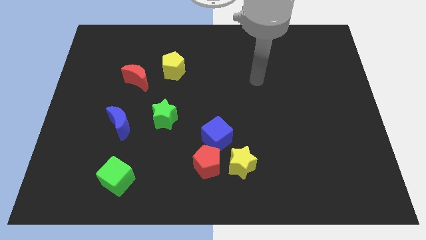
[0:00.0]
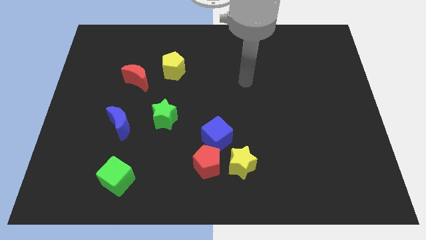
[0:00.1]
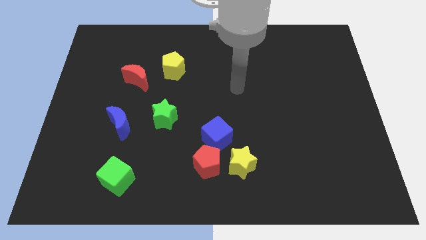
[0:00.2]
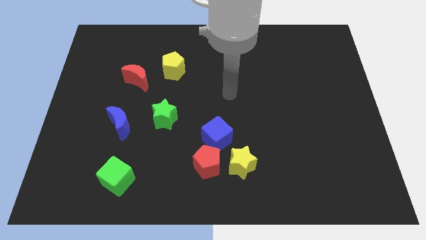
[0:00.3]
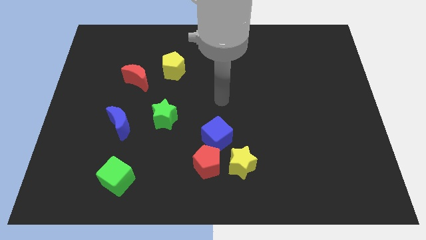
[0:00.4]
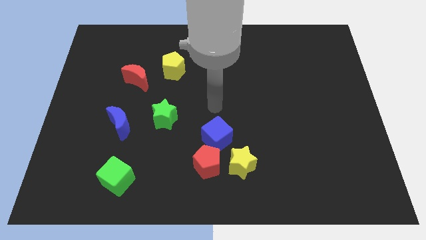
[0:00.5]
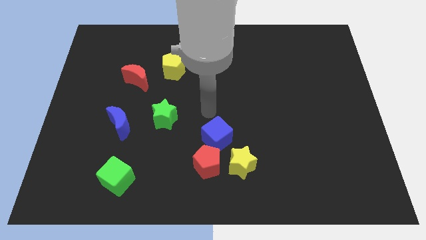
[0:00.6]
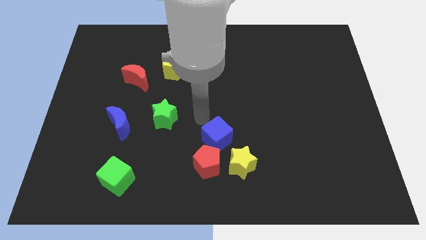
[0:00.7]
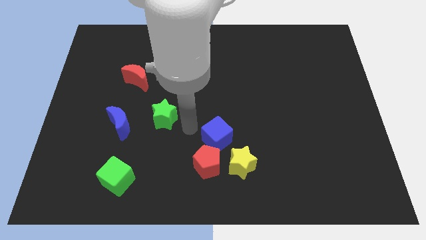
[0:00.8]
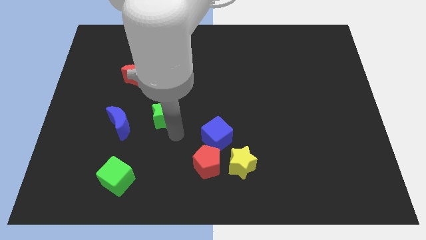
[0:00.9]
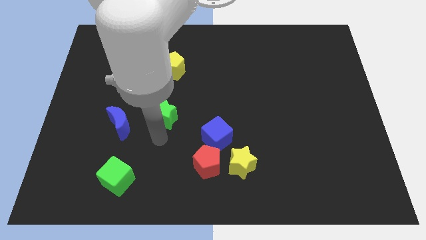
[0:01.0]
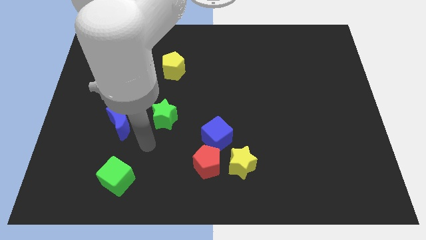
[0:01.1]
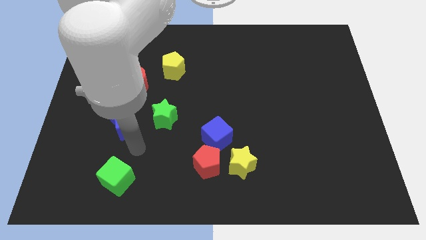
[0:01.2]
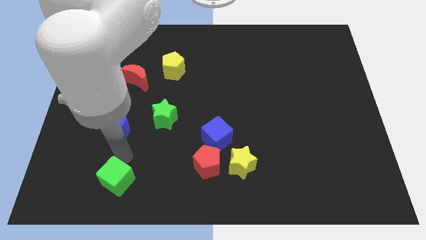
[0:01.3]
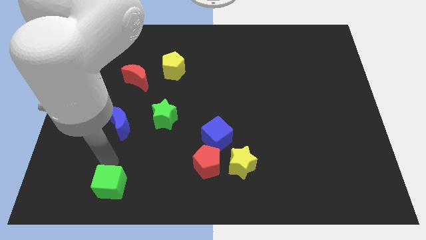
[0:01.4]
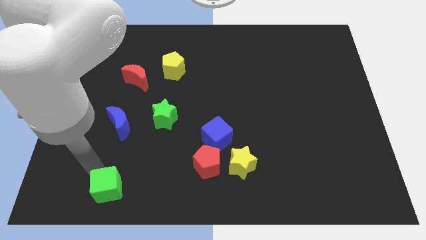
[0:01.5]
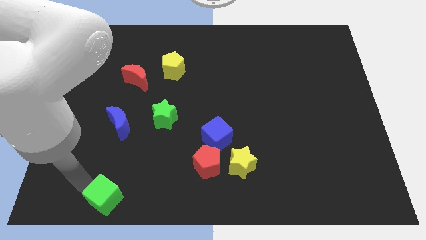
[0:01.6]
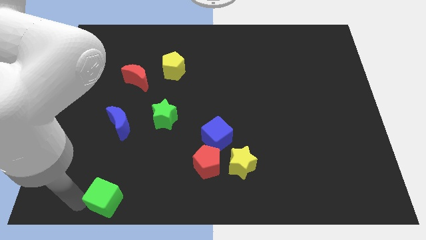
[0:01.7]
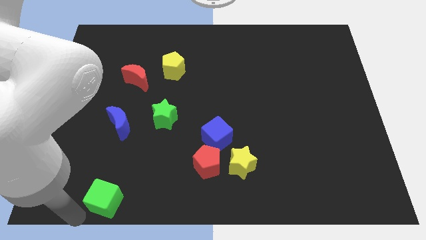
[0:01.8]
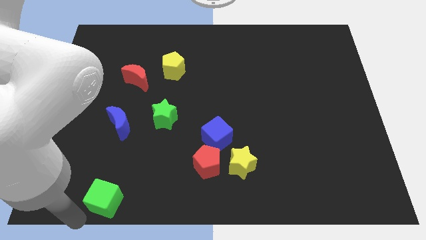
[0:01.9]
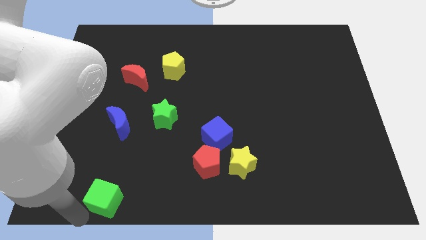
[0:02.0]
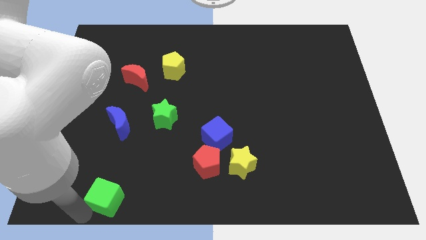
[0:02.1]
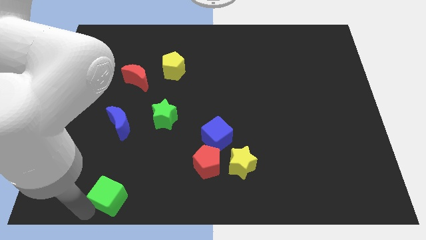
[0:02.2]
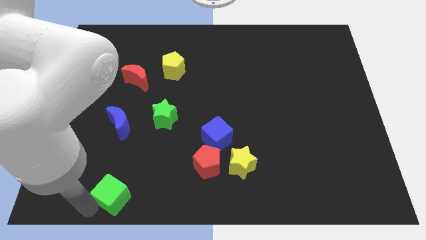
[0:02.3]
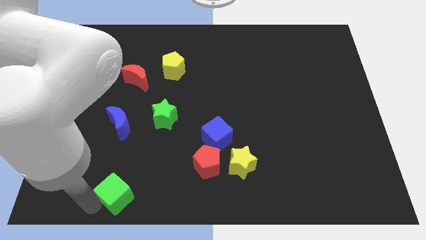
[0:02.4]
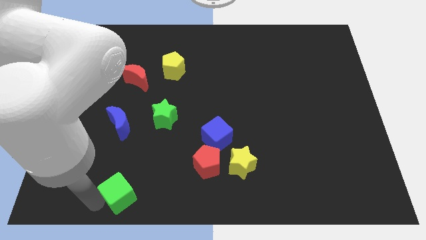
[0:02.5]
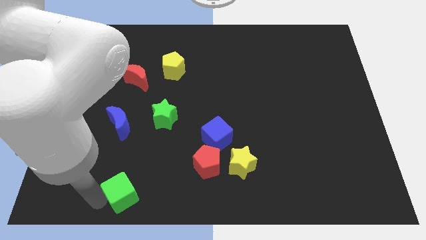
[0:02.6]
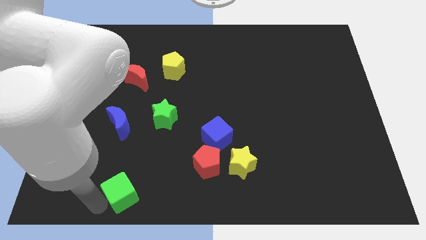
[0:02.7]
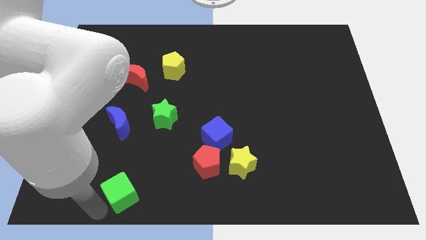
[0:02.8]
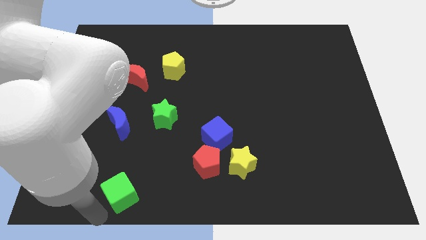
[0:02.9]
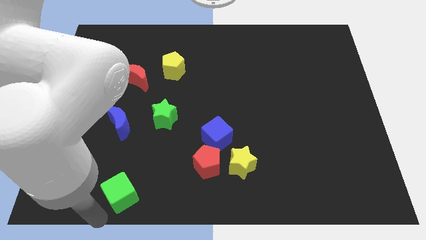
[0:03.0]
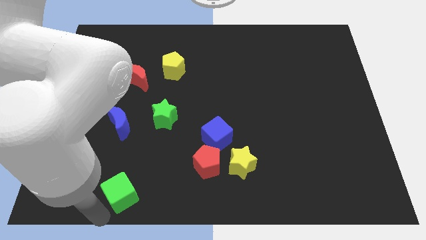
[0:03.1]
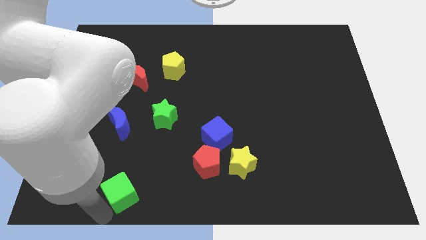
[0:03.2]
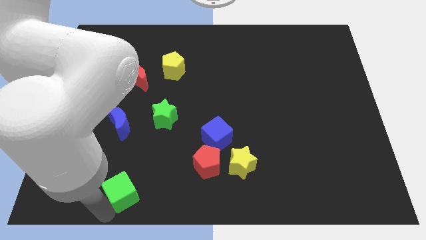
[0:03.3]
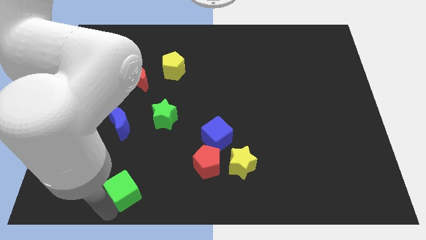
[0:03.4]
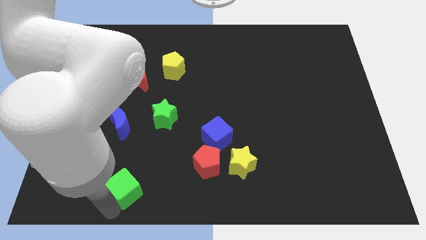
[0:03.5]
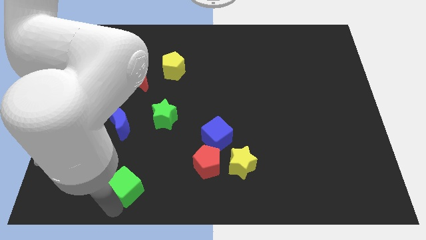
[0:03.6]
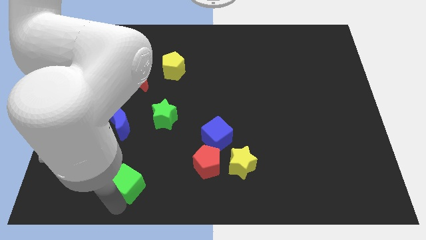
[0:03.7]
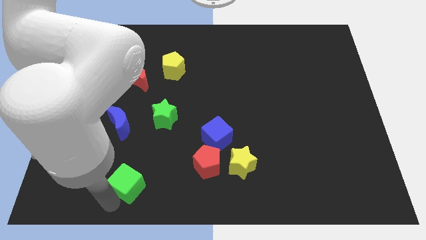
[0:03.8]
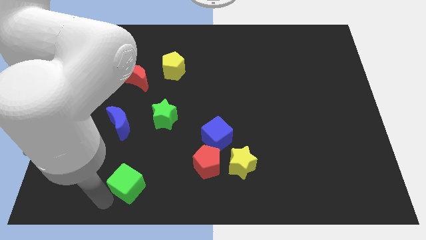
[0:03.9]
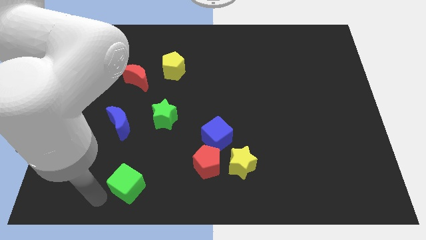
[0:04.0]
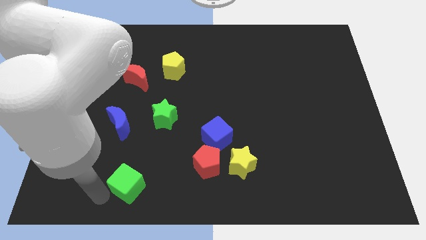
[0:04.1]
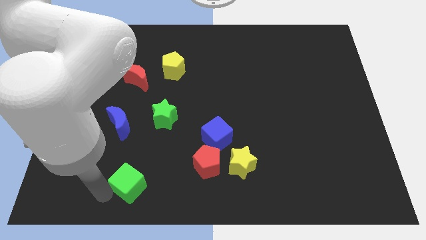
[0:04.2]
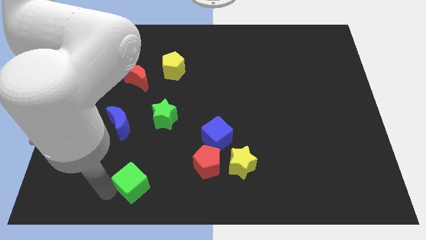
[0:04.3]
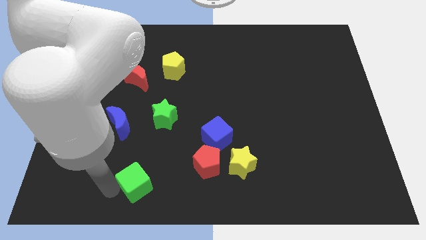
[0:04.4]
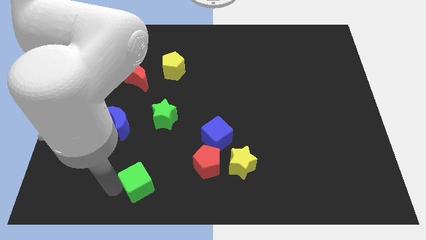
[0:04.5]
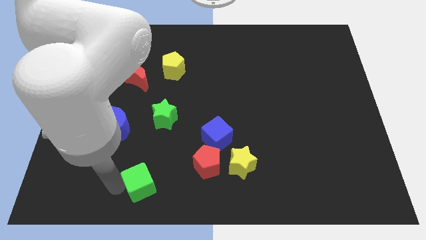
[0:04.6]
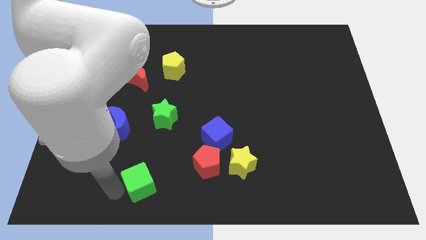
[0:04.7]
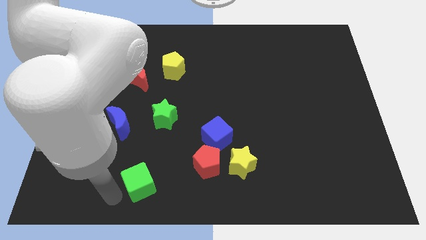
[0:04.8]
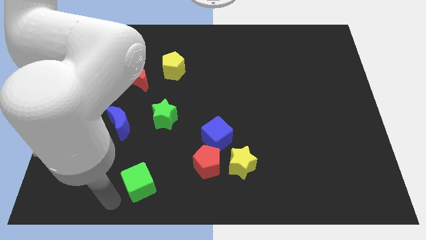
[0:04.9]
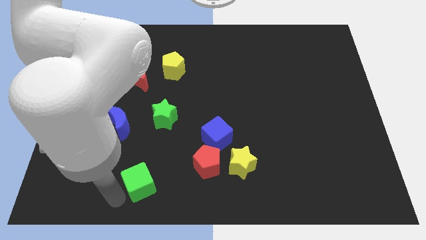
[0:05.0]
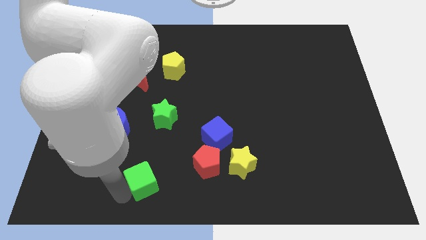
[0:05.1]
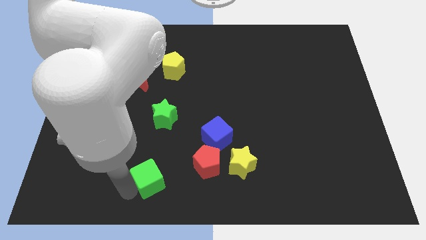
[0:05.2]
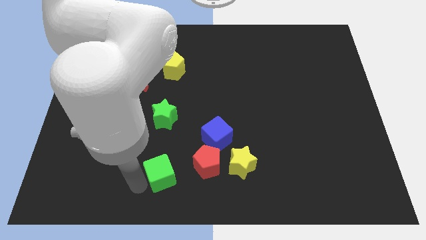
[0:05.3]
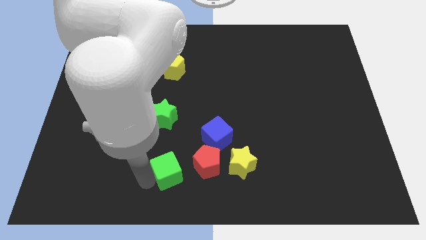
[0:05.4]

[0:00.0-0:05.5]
put the green cube to the left of the yellow star

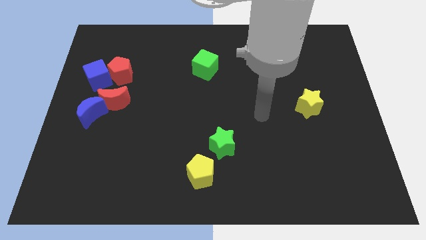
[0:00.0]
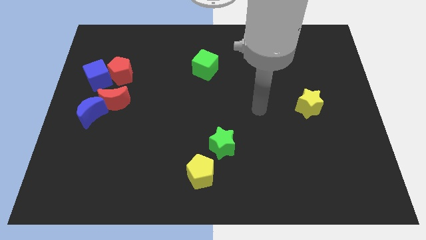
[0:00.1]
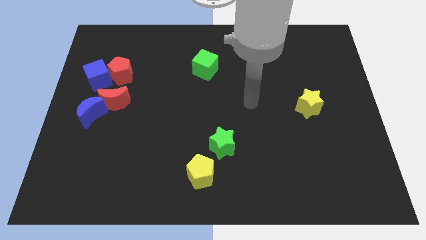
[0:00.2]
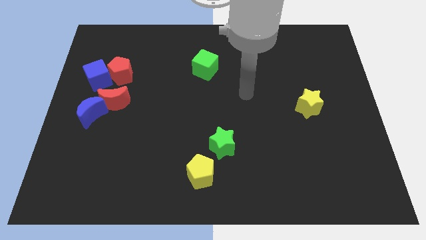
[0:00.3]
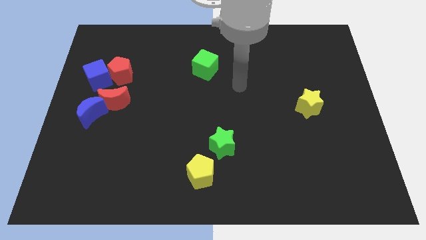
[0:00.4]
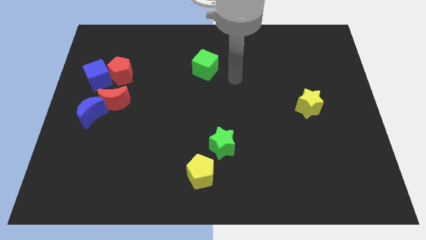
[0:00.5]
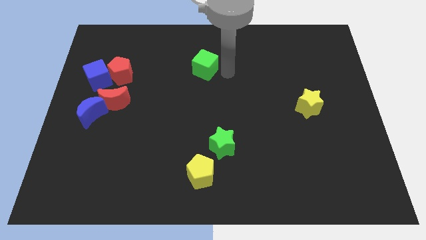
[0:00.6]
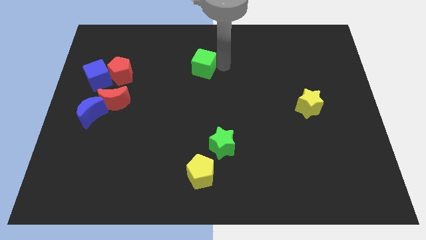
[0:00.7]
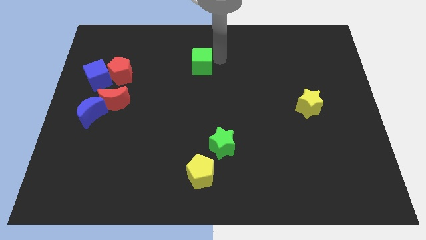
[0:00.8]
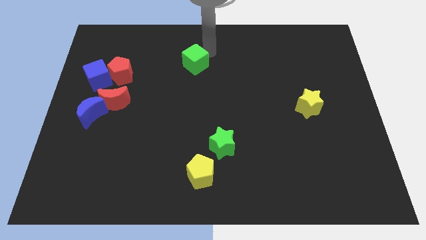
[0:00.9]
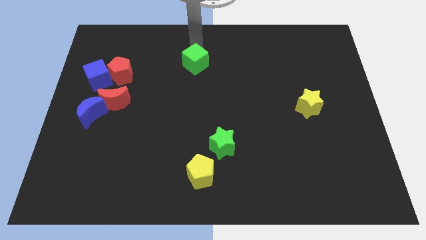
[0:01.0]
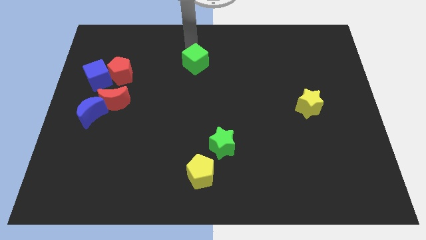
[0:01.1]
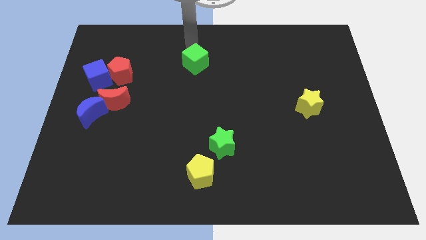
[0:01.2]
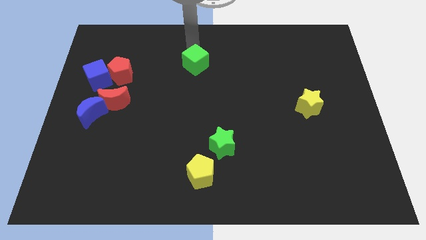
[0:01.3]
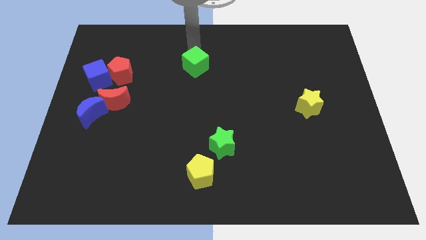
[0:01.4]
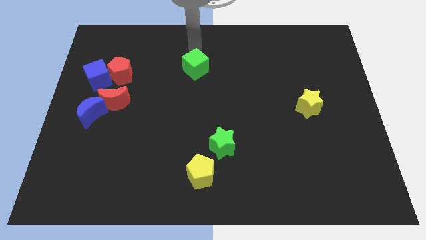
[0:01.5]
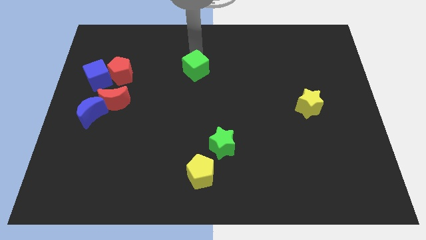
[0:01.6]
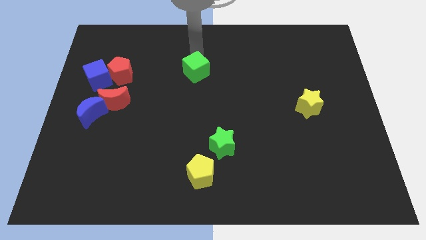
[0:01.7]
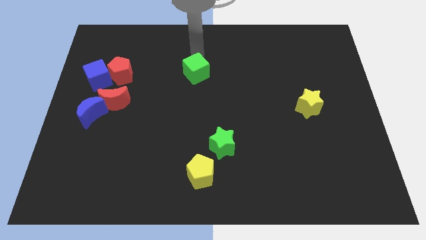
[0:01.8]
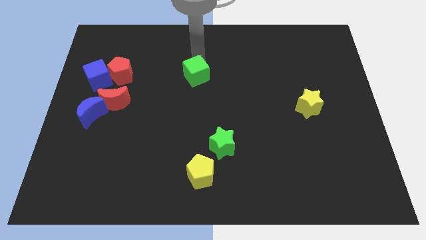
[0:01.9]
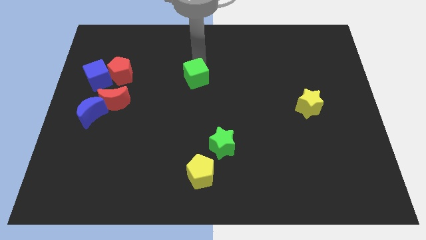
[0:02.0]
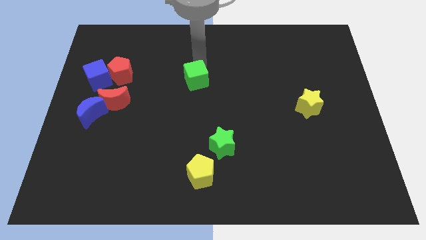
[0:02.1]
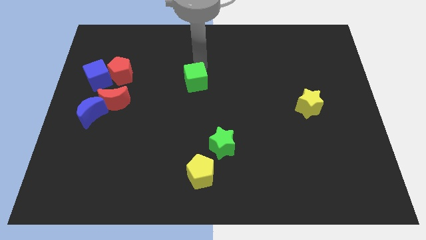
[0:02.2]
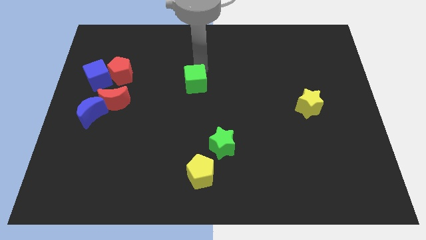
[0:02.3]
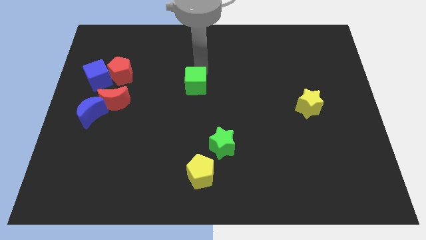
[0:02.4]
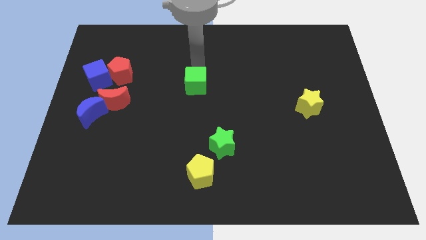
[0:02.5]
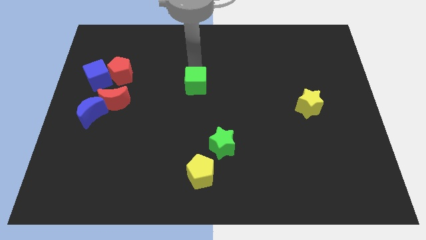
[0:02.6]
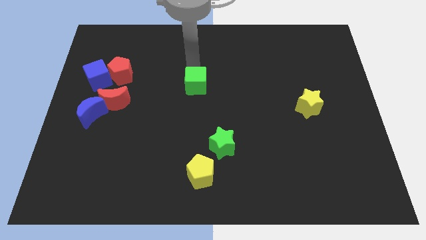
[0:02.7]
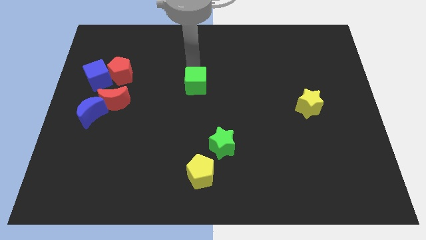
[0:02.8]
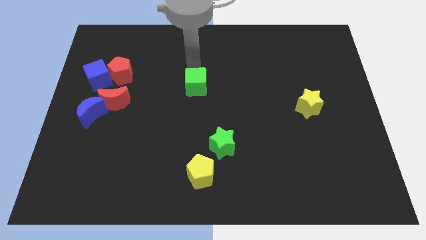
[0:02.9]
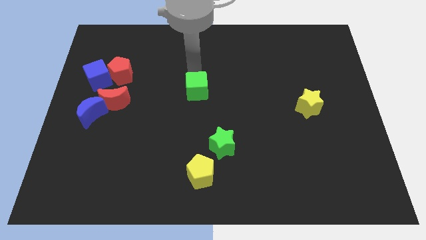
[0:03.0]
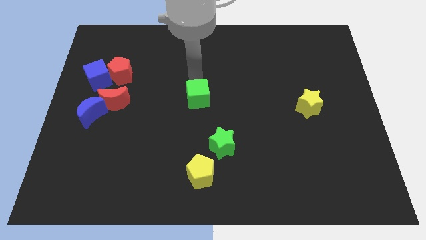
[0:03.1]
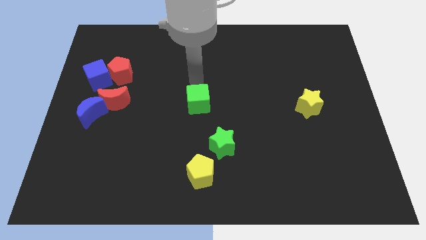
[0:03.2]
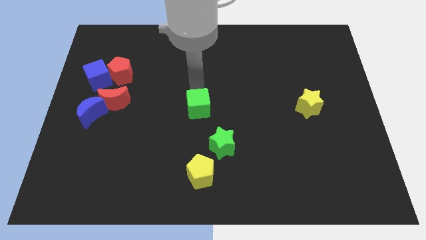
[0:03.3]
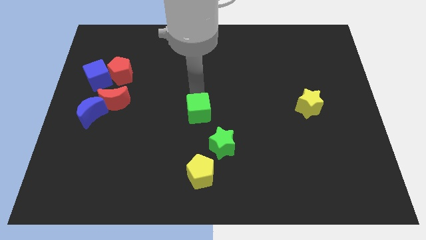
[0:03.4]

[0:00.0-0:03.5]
push the green cube to the top side of the yellow pentagon
